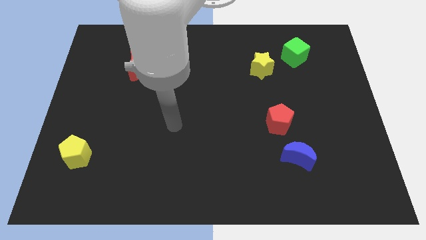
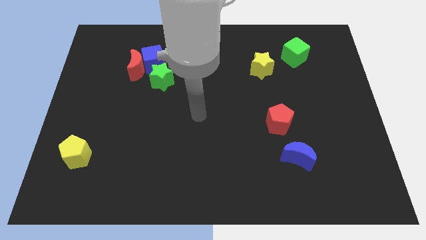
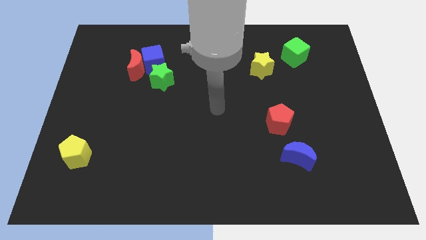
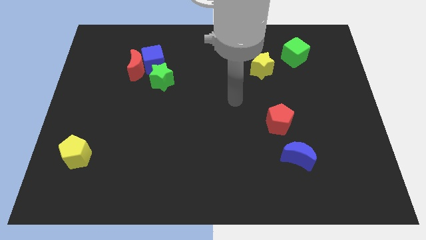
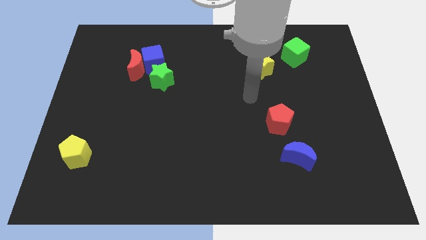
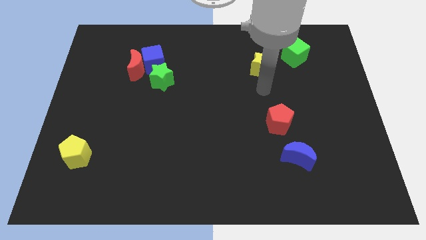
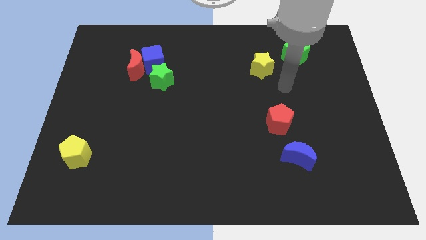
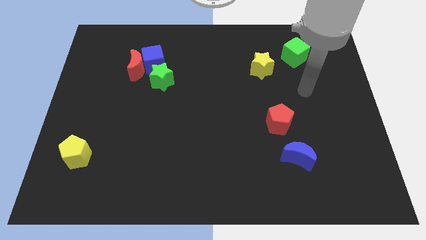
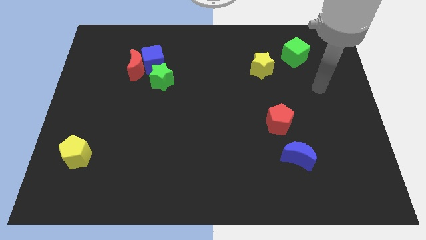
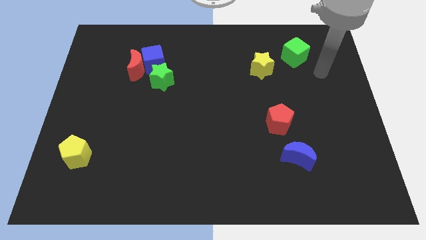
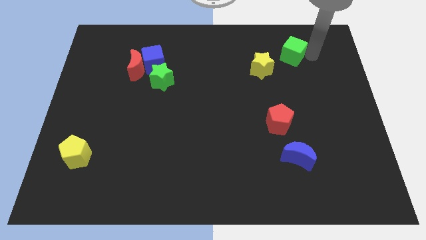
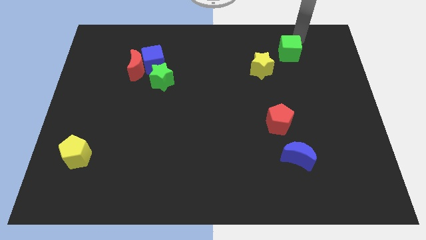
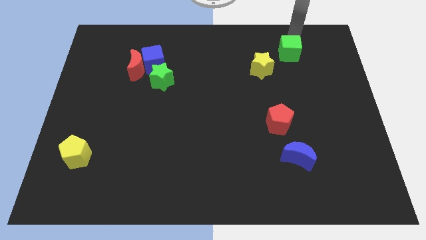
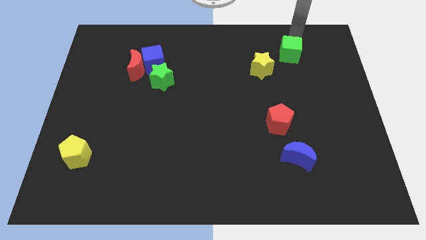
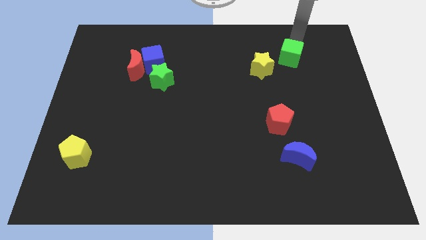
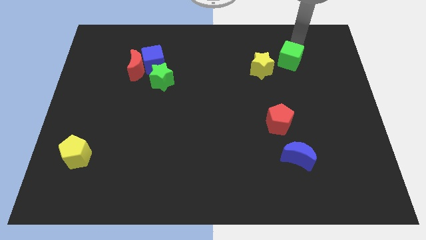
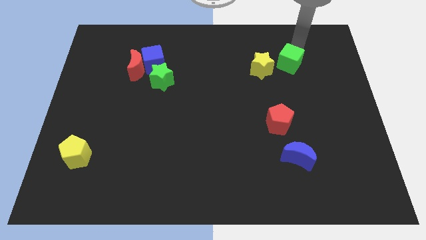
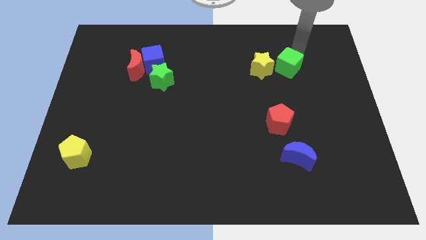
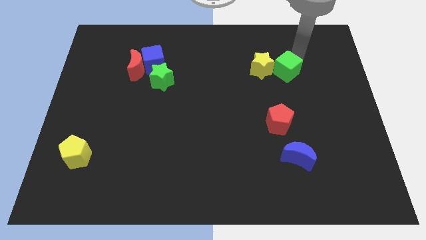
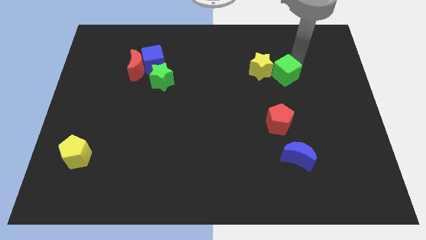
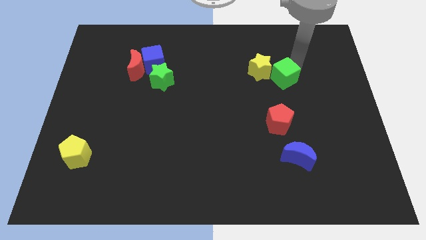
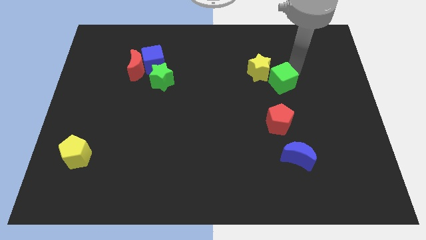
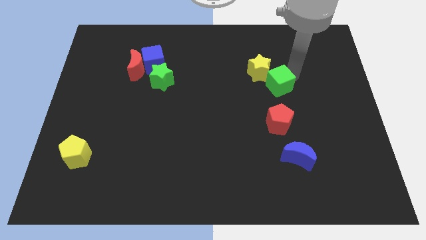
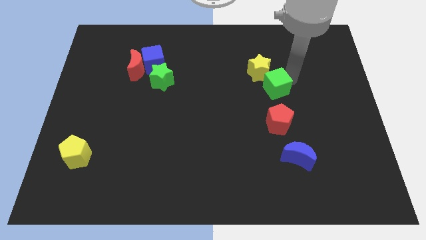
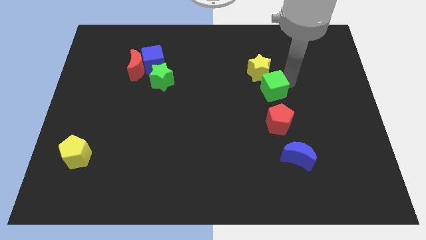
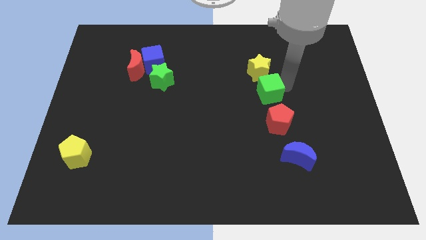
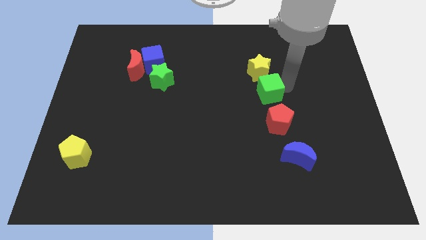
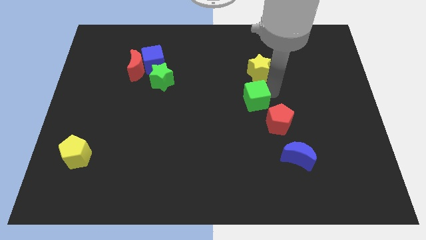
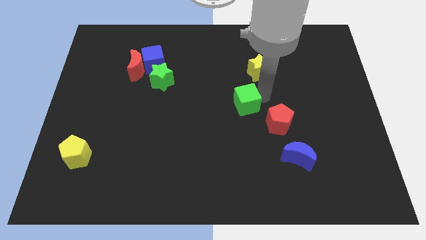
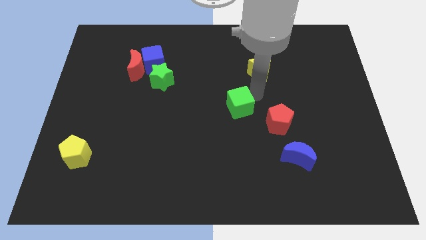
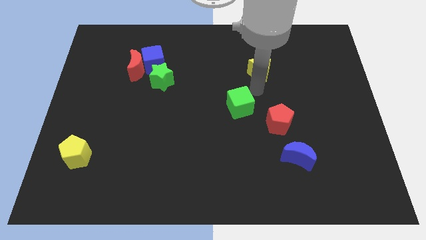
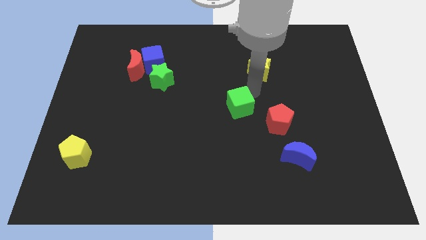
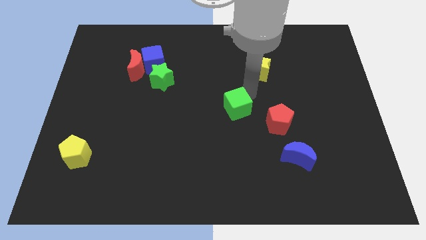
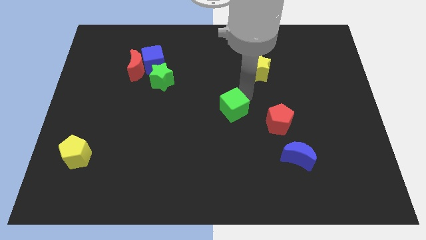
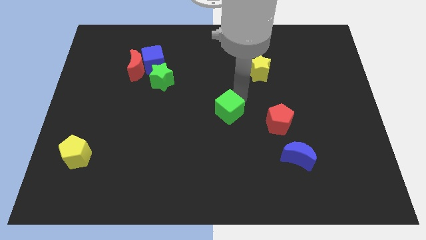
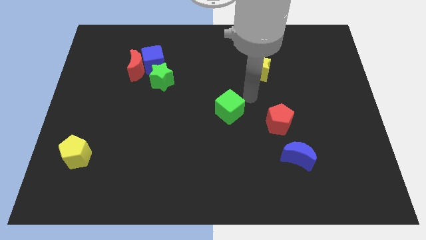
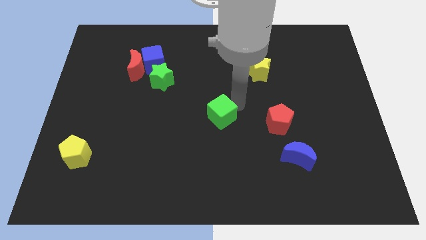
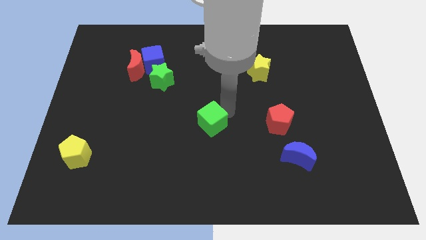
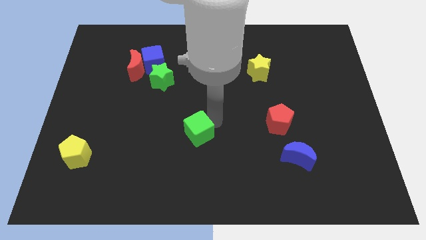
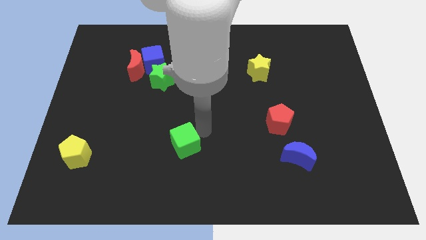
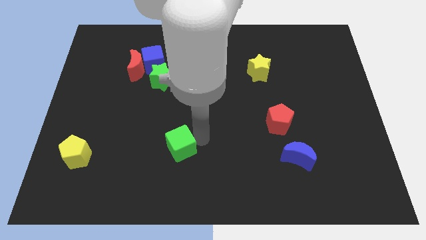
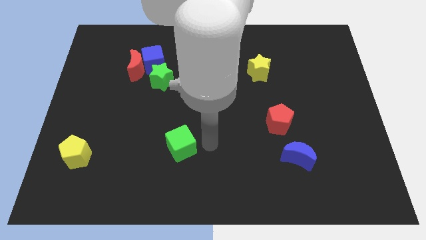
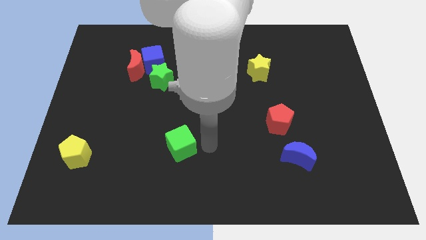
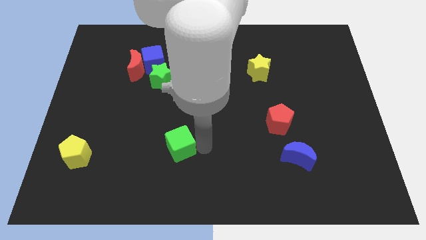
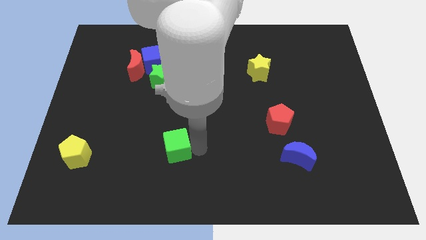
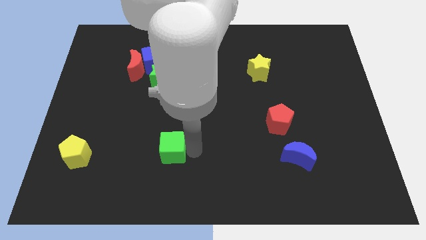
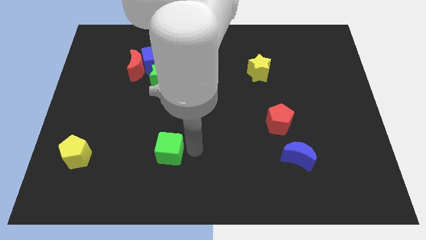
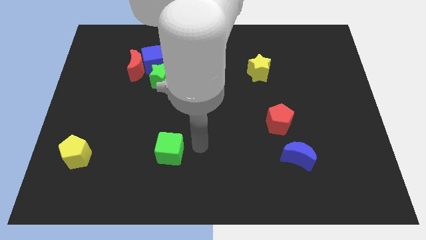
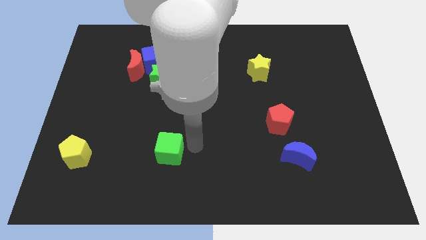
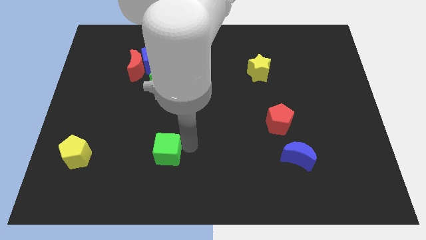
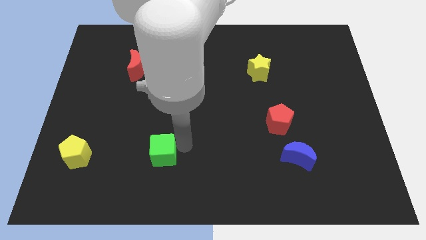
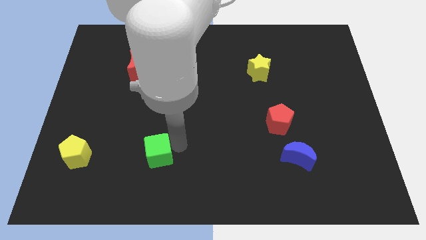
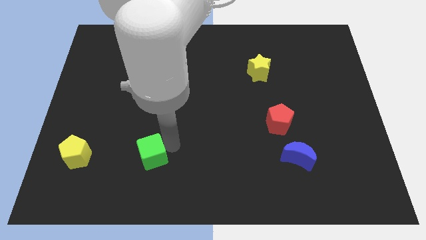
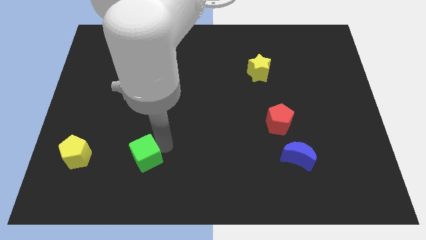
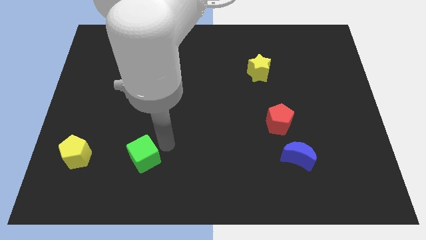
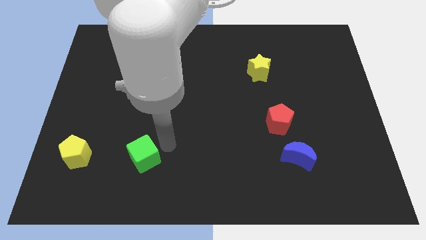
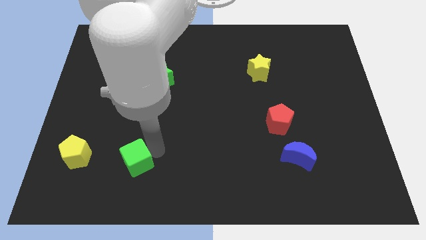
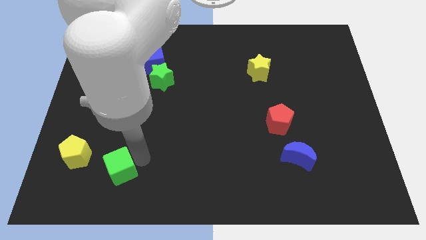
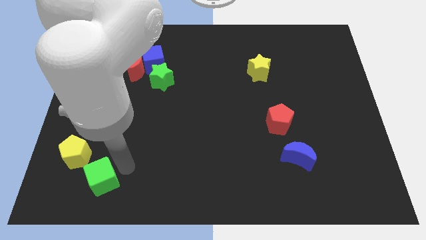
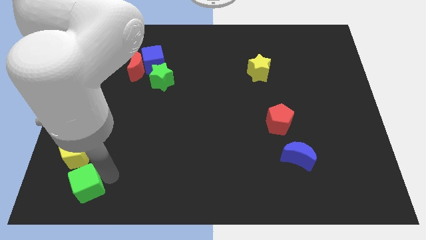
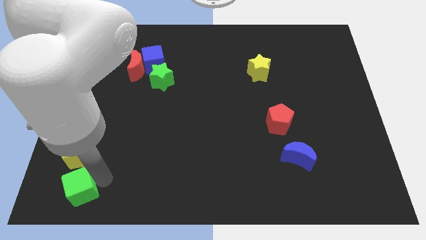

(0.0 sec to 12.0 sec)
move the green cube to the bottom left
